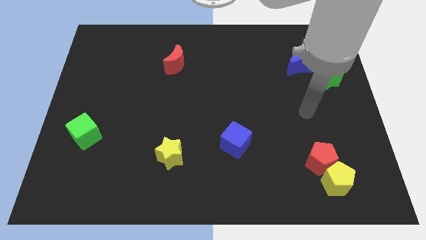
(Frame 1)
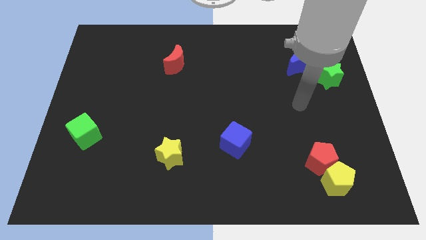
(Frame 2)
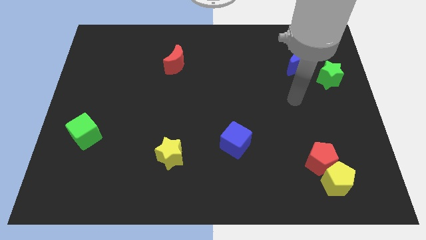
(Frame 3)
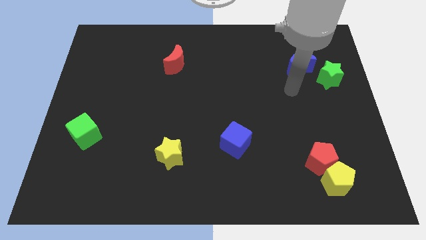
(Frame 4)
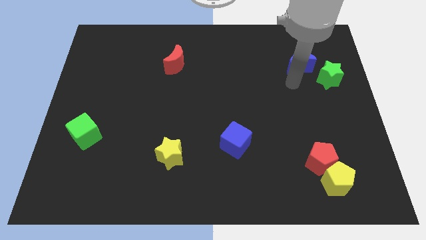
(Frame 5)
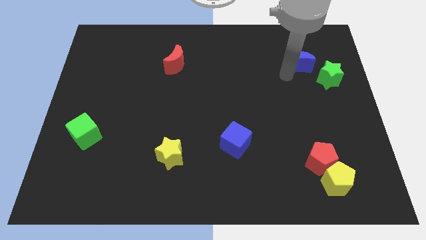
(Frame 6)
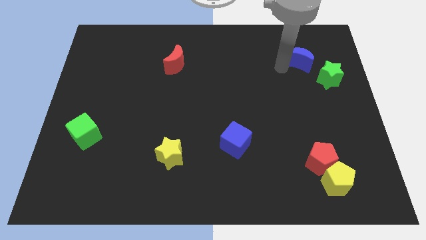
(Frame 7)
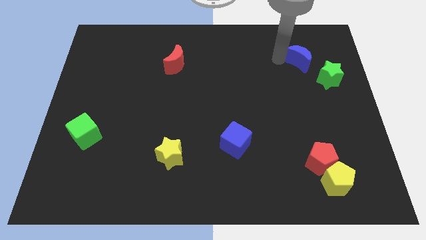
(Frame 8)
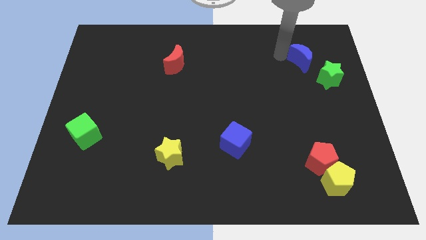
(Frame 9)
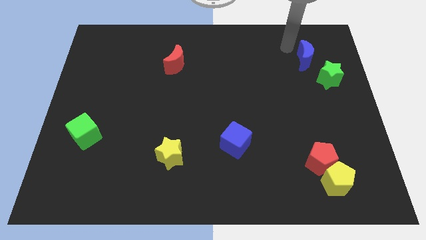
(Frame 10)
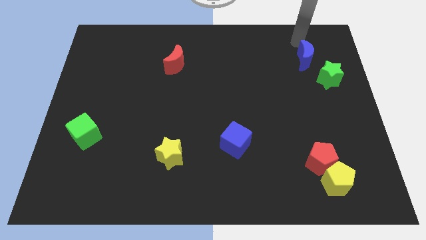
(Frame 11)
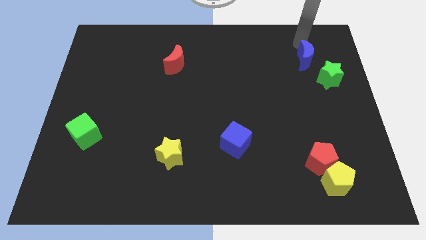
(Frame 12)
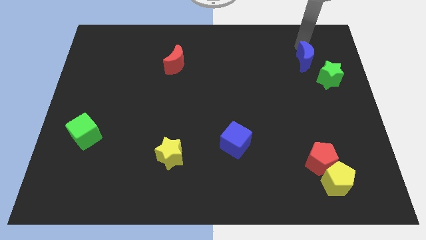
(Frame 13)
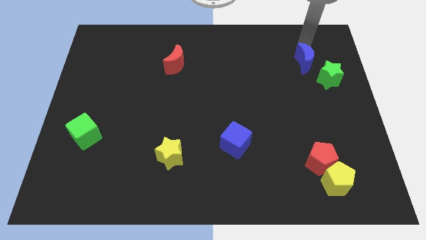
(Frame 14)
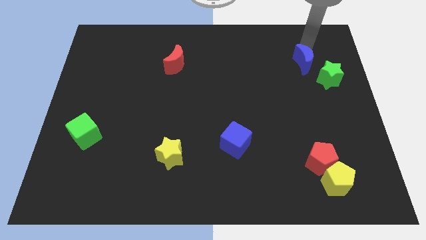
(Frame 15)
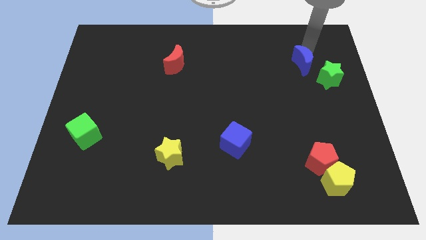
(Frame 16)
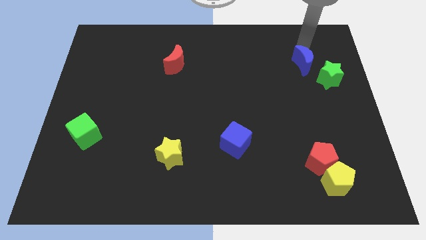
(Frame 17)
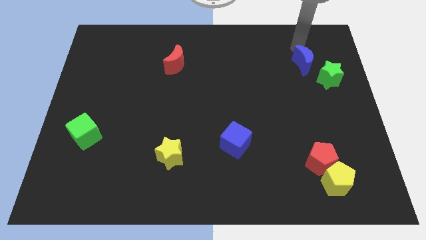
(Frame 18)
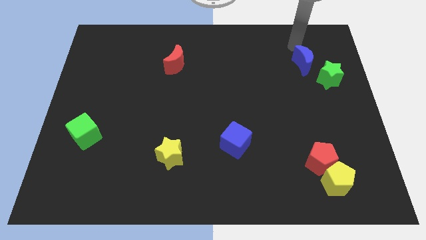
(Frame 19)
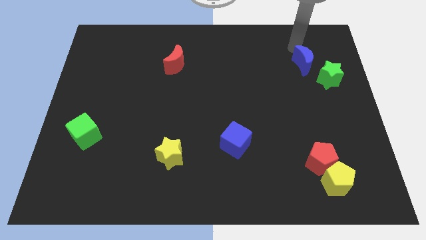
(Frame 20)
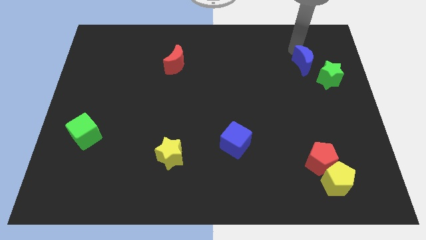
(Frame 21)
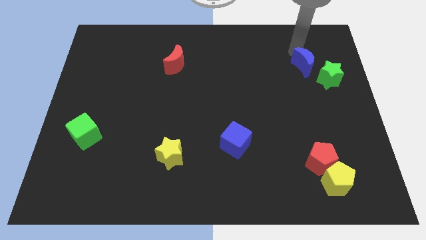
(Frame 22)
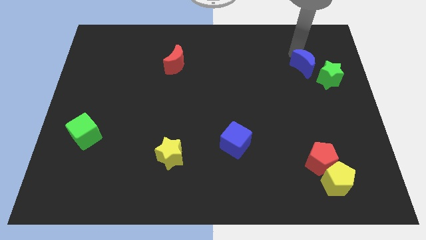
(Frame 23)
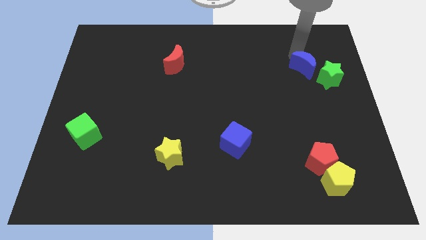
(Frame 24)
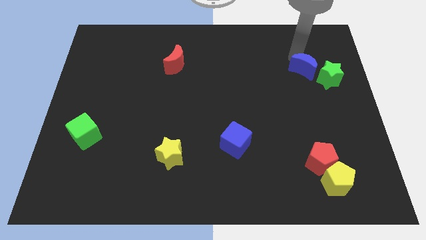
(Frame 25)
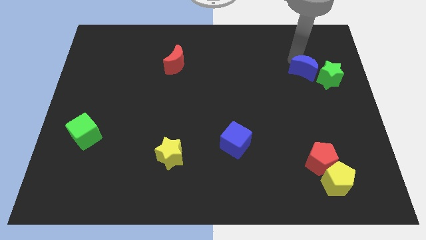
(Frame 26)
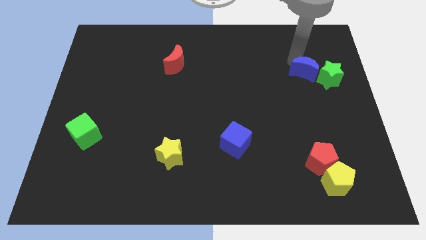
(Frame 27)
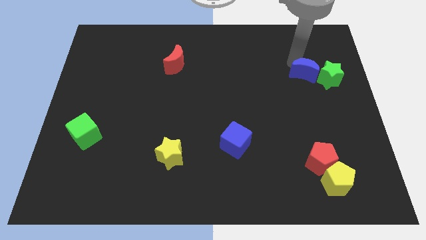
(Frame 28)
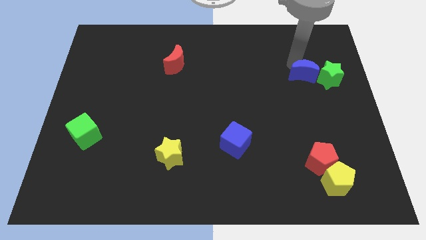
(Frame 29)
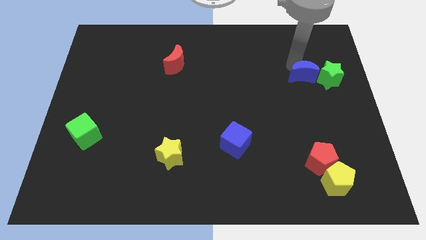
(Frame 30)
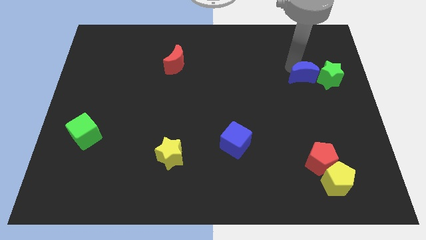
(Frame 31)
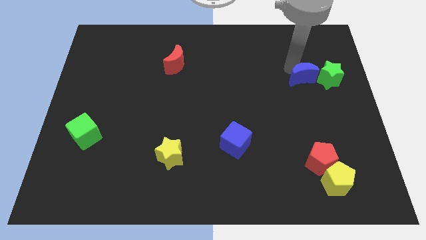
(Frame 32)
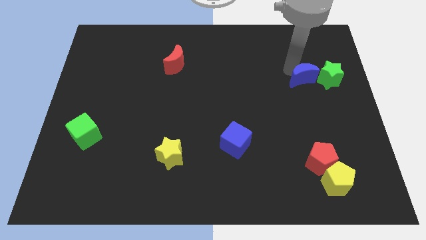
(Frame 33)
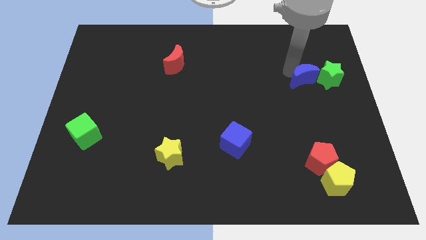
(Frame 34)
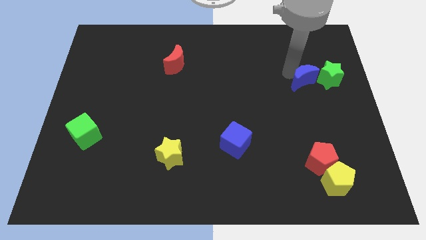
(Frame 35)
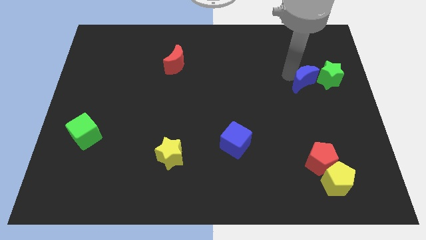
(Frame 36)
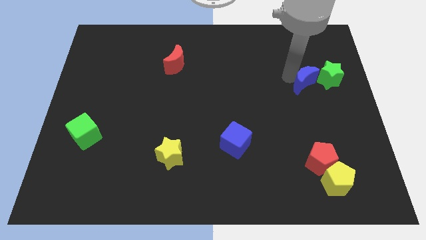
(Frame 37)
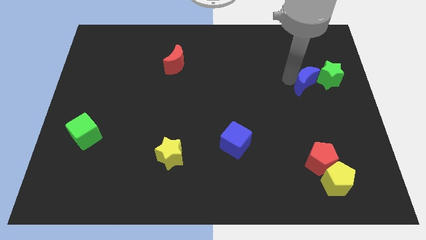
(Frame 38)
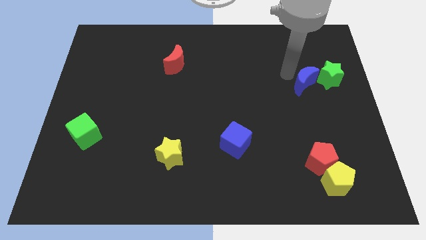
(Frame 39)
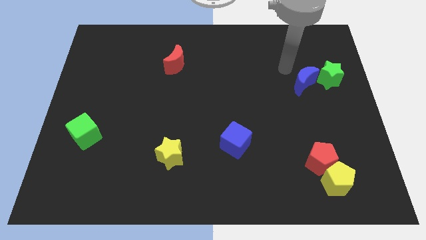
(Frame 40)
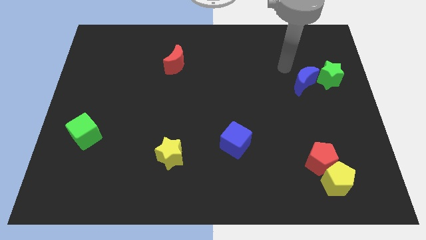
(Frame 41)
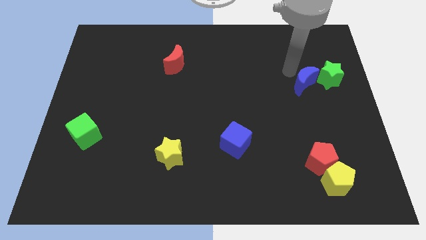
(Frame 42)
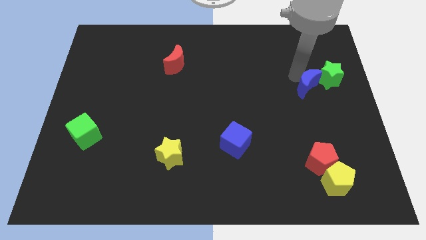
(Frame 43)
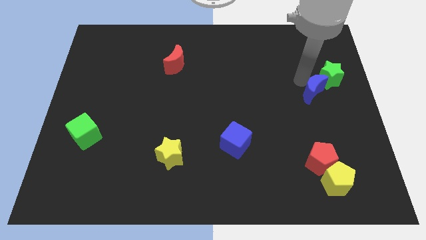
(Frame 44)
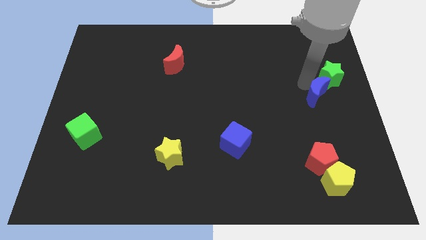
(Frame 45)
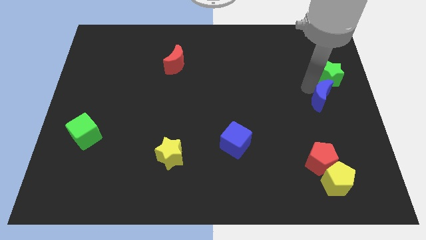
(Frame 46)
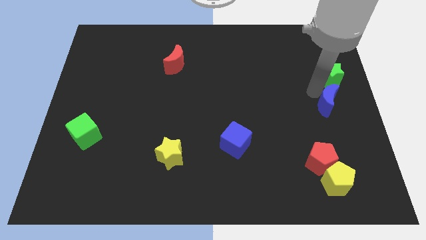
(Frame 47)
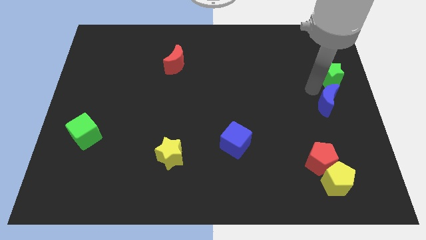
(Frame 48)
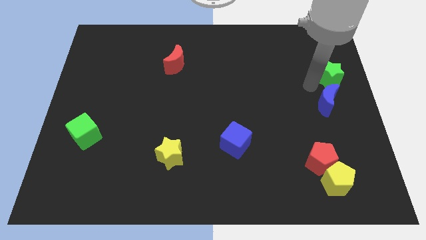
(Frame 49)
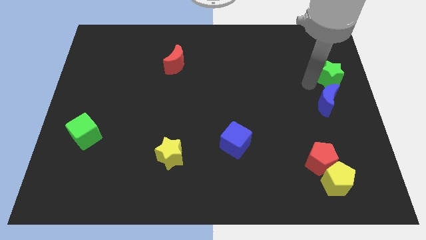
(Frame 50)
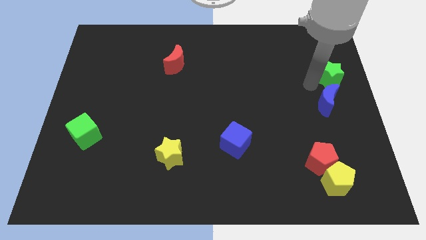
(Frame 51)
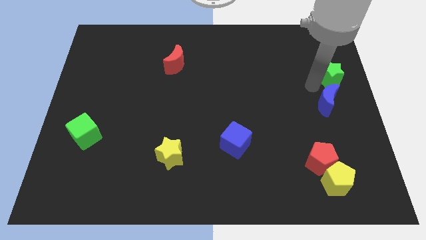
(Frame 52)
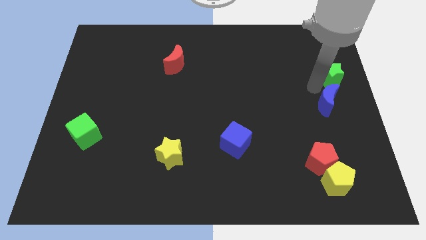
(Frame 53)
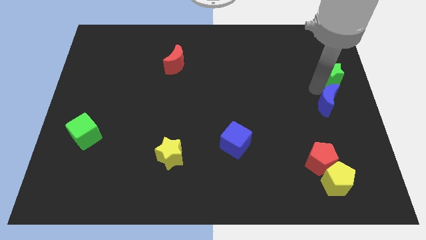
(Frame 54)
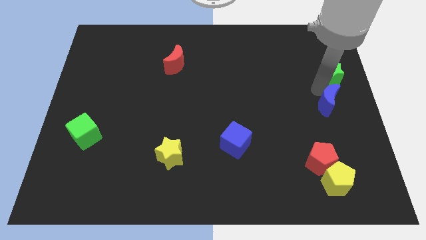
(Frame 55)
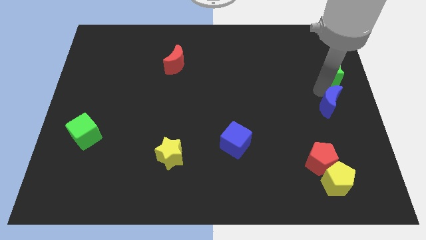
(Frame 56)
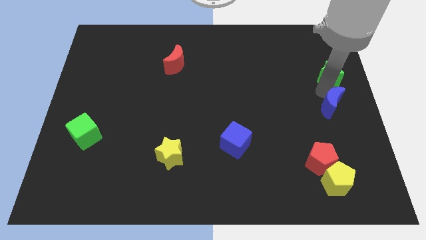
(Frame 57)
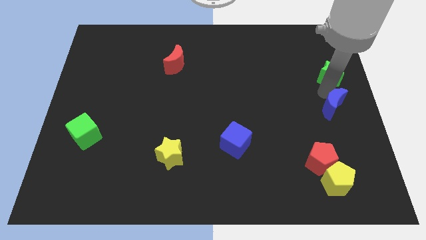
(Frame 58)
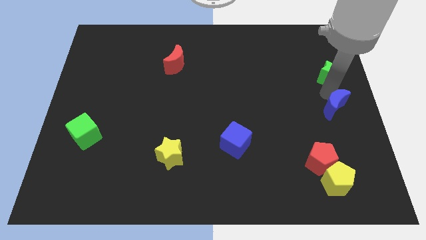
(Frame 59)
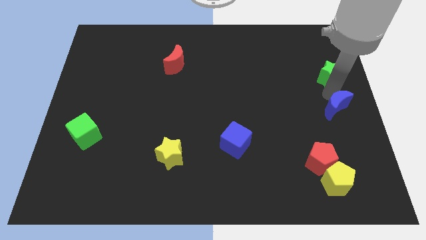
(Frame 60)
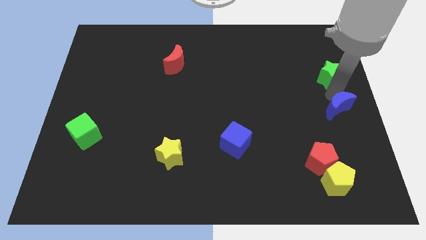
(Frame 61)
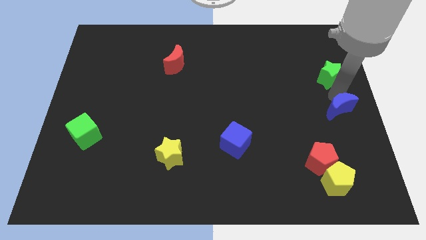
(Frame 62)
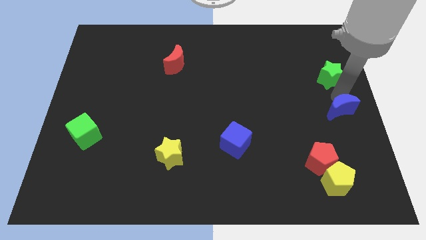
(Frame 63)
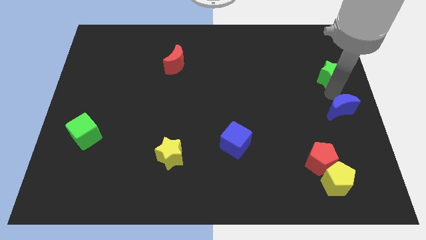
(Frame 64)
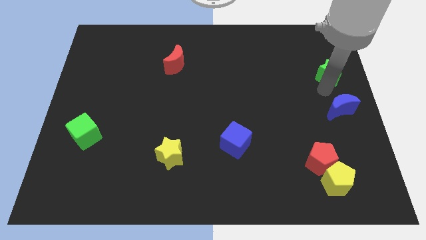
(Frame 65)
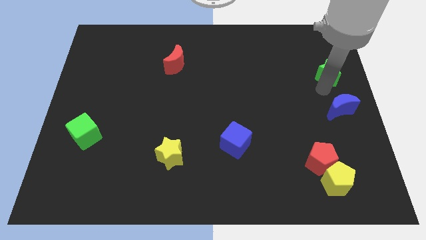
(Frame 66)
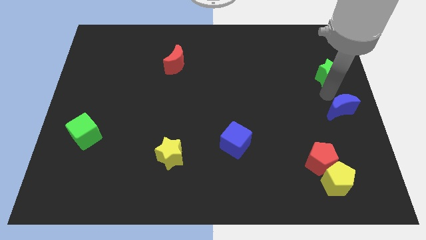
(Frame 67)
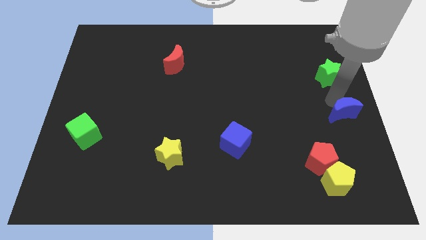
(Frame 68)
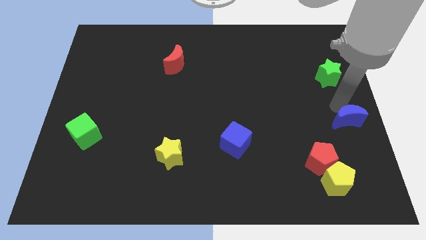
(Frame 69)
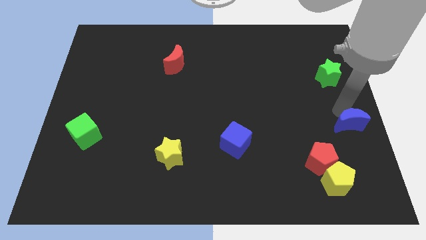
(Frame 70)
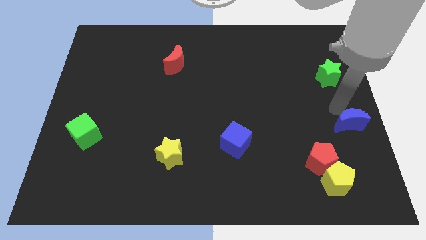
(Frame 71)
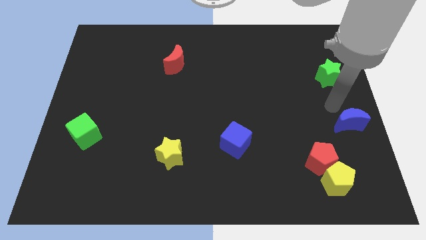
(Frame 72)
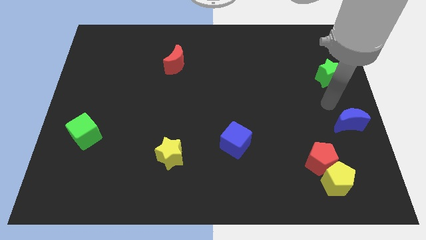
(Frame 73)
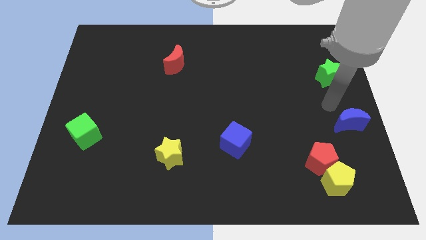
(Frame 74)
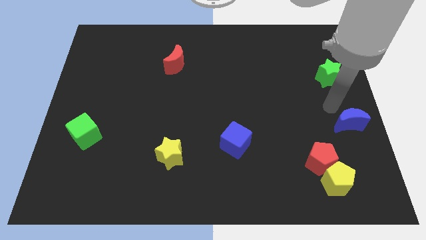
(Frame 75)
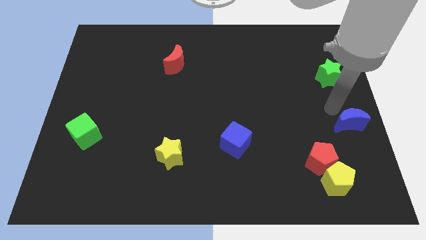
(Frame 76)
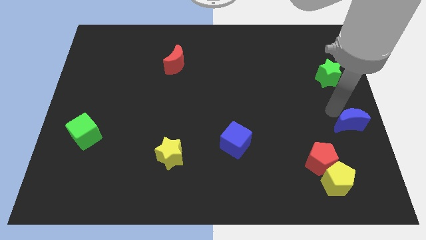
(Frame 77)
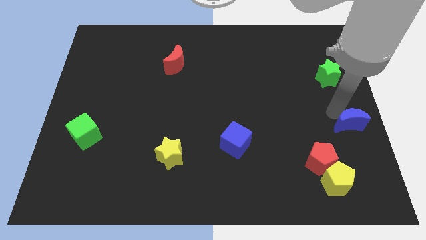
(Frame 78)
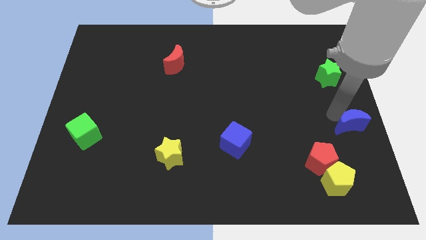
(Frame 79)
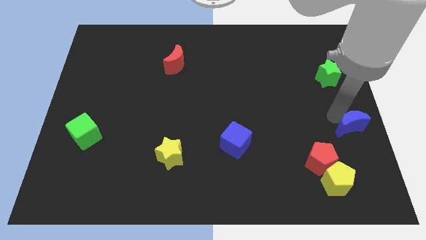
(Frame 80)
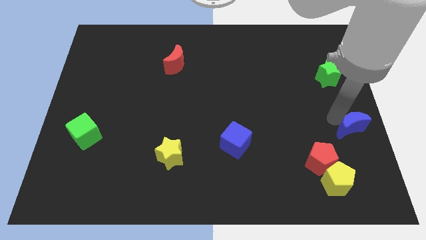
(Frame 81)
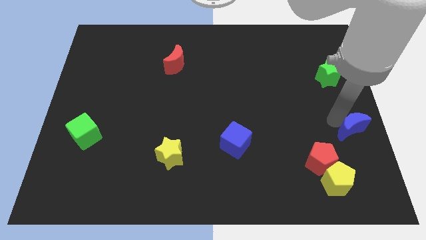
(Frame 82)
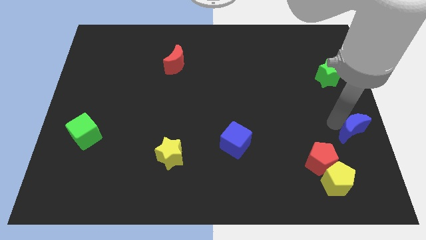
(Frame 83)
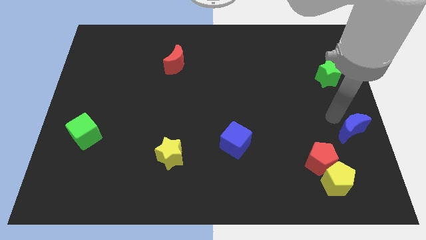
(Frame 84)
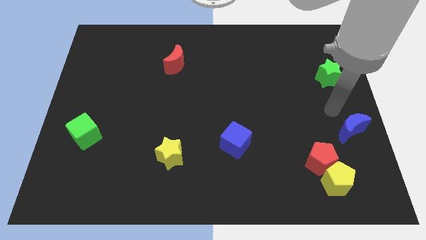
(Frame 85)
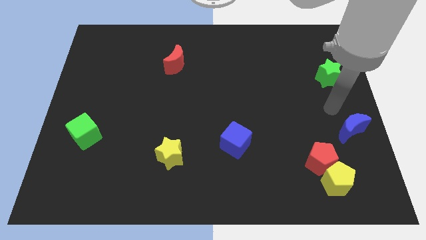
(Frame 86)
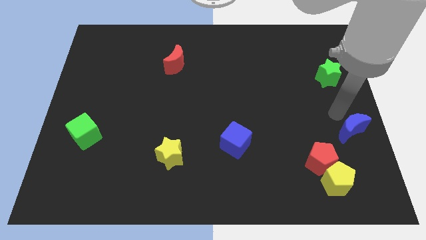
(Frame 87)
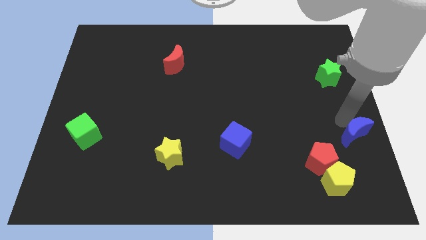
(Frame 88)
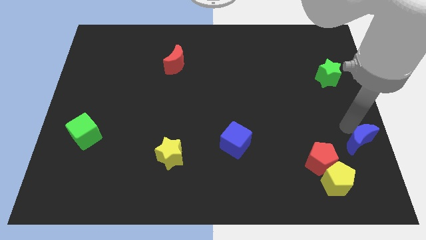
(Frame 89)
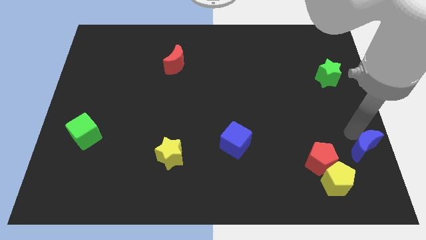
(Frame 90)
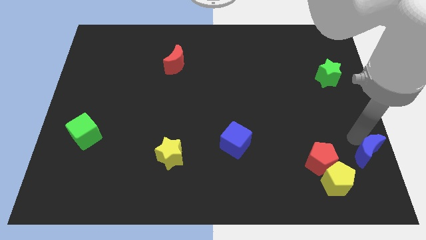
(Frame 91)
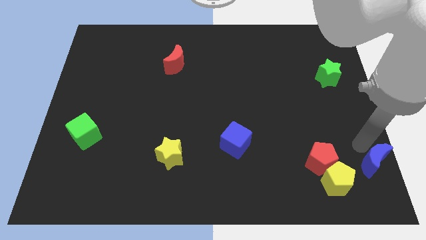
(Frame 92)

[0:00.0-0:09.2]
push the blue moon to the bottom right corner
